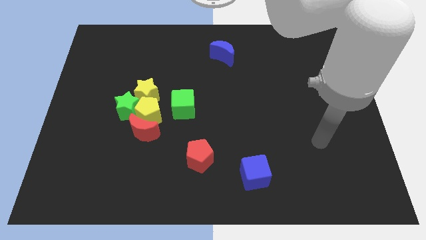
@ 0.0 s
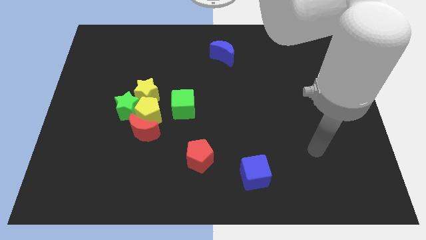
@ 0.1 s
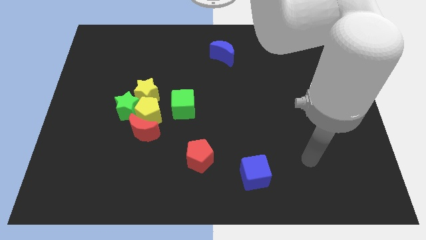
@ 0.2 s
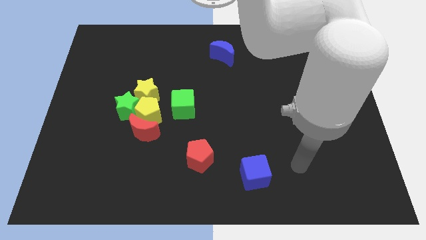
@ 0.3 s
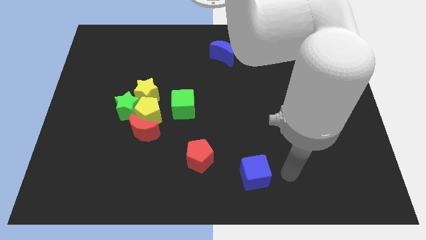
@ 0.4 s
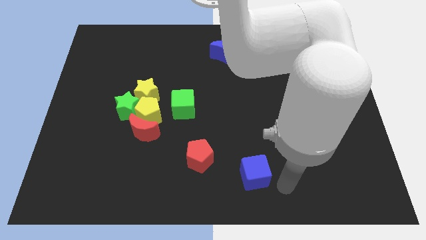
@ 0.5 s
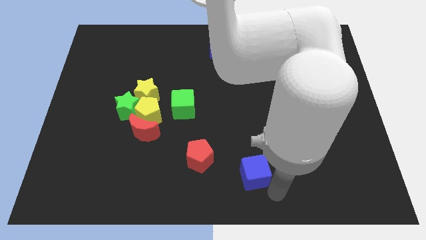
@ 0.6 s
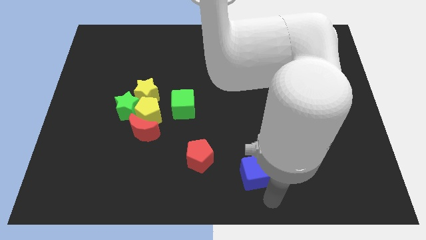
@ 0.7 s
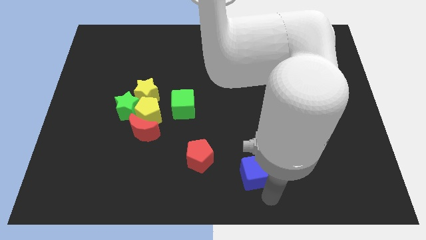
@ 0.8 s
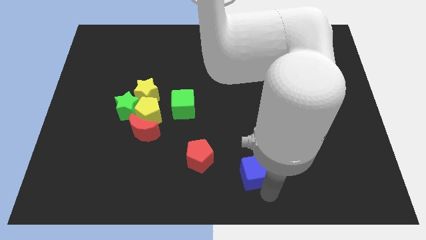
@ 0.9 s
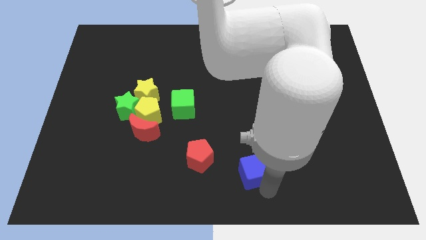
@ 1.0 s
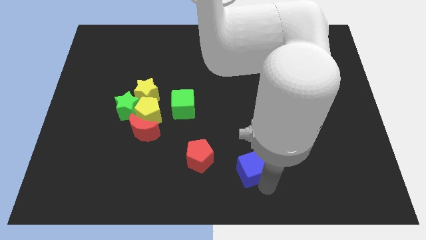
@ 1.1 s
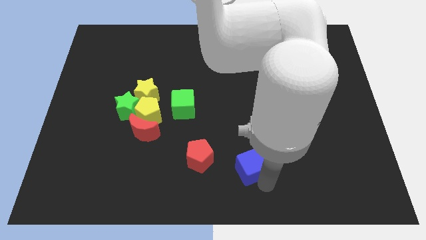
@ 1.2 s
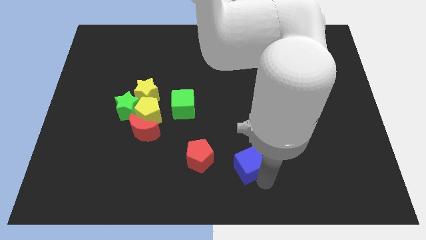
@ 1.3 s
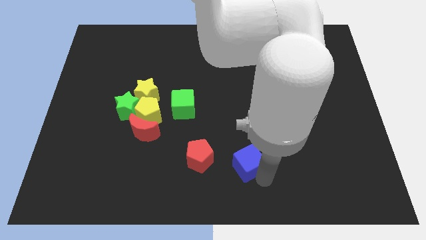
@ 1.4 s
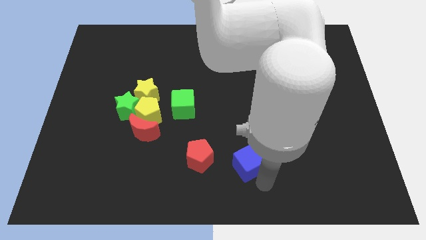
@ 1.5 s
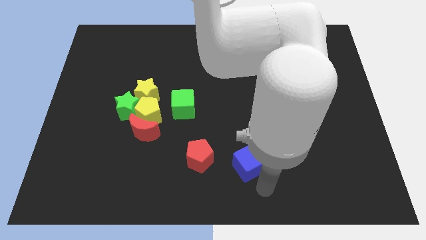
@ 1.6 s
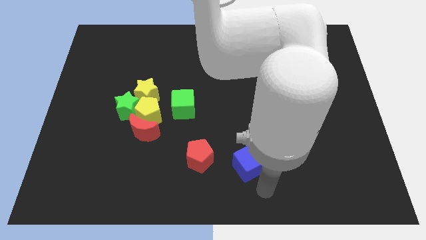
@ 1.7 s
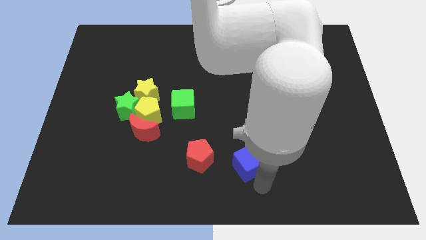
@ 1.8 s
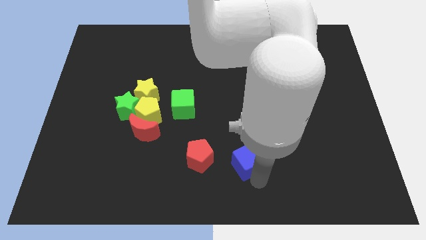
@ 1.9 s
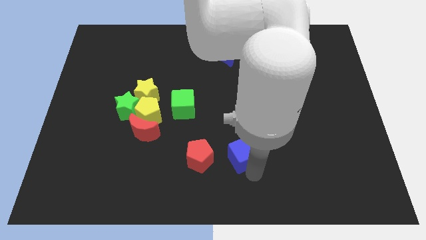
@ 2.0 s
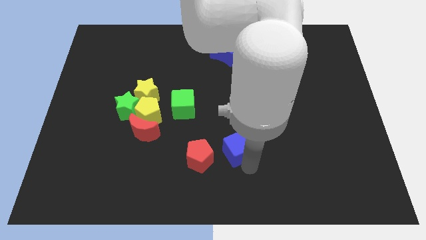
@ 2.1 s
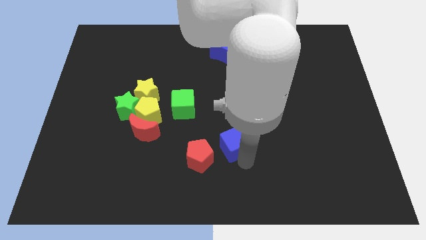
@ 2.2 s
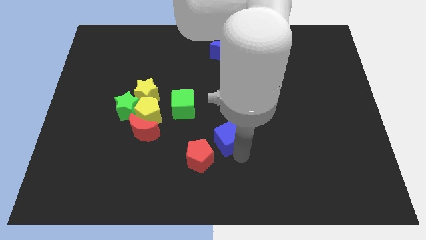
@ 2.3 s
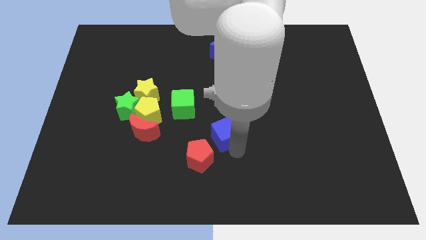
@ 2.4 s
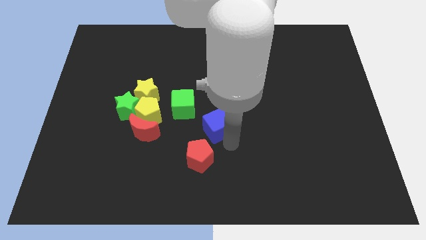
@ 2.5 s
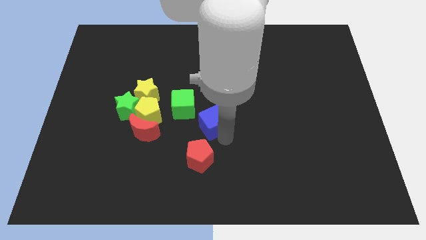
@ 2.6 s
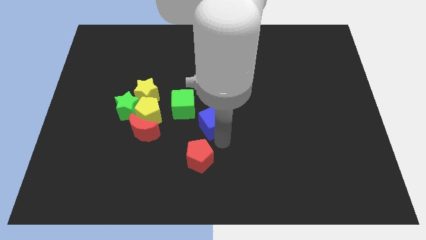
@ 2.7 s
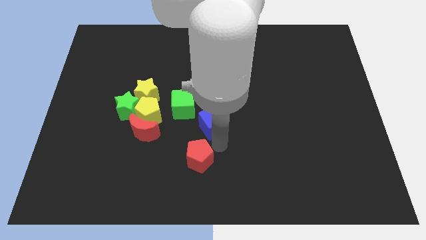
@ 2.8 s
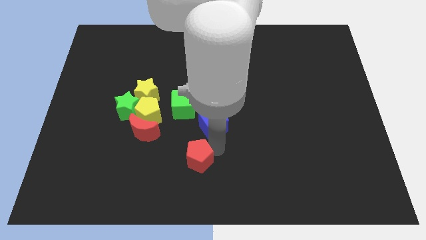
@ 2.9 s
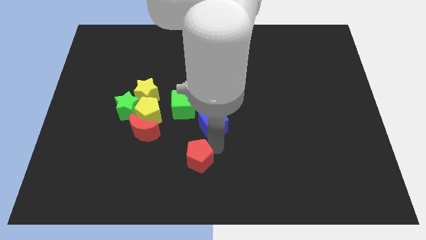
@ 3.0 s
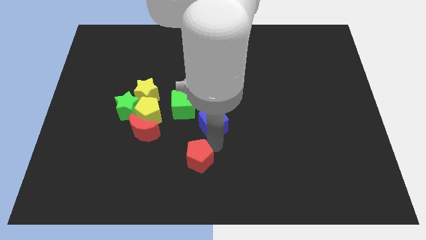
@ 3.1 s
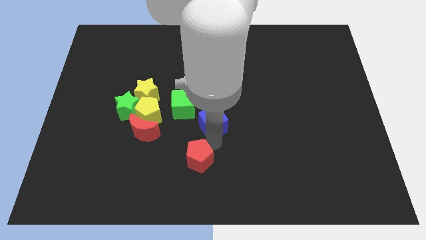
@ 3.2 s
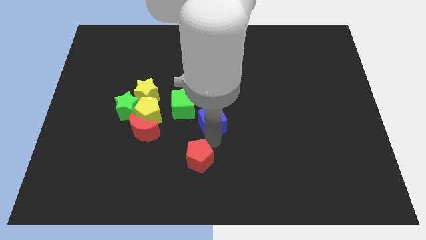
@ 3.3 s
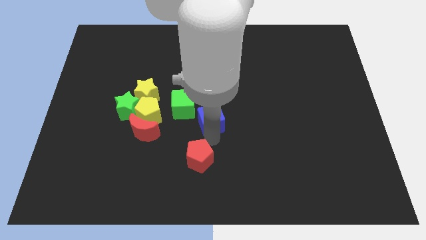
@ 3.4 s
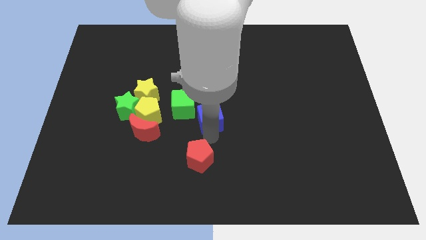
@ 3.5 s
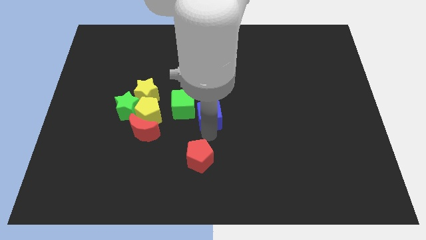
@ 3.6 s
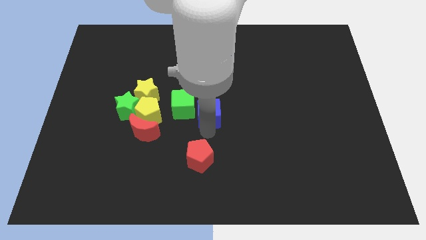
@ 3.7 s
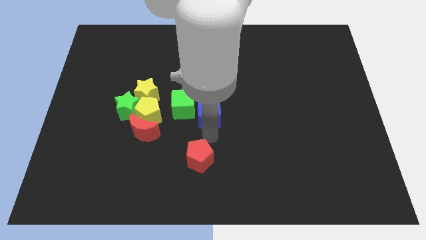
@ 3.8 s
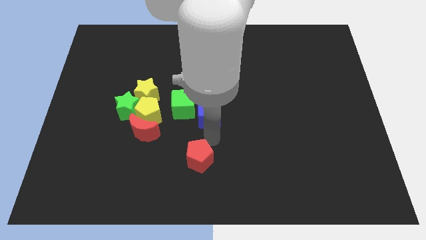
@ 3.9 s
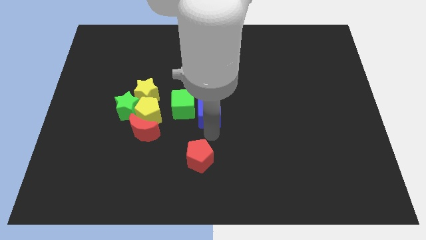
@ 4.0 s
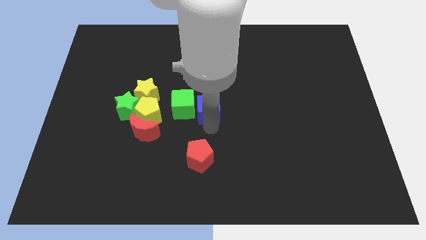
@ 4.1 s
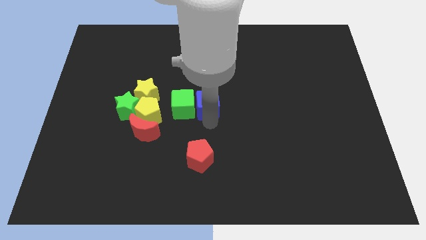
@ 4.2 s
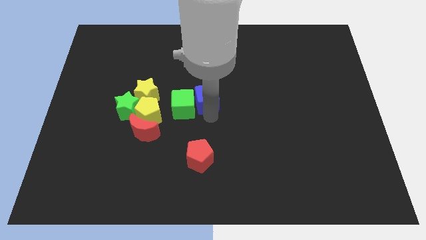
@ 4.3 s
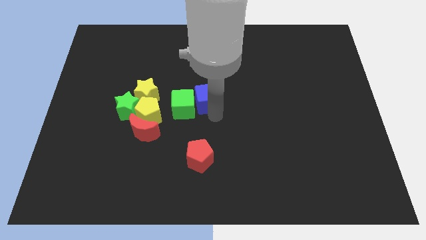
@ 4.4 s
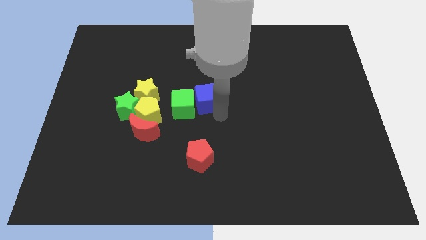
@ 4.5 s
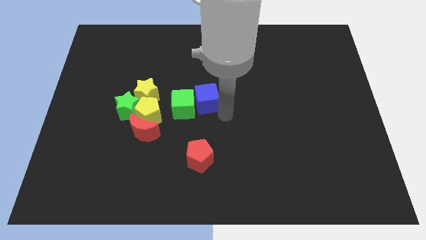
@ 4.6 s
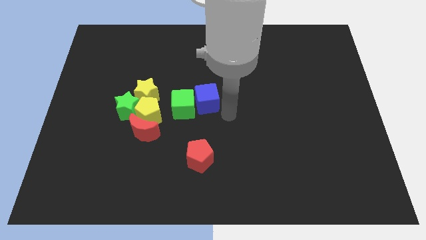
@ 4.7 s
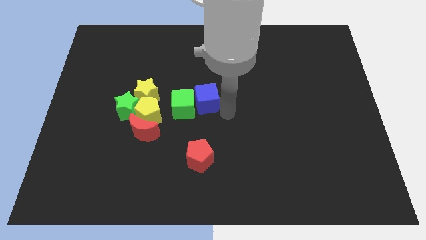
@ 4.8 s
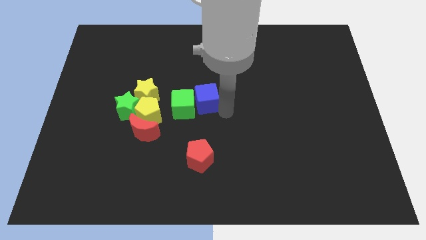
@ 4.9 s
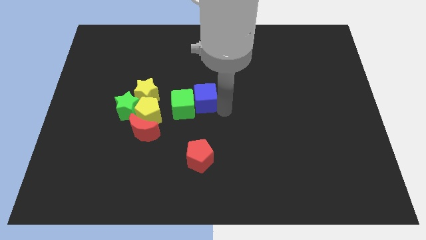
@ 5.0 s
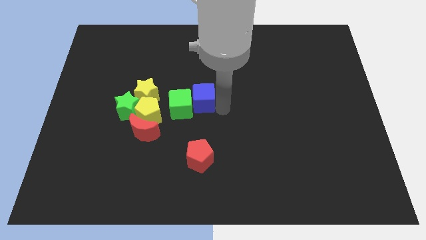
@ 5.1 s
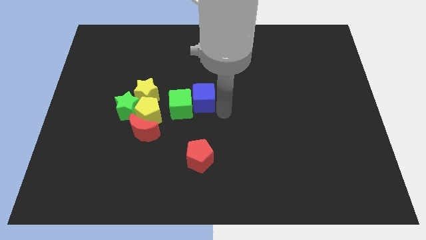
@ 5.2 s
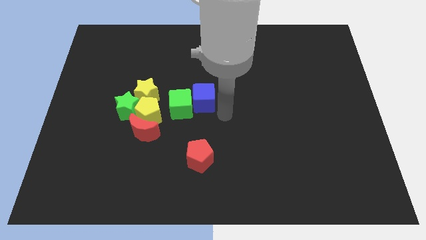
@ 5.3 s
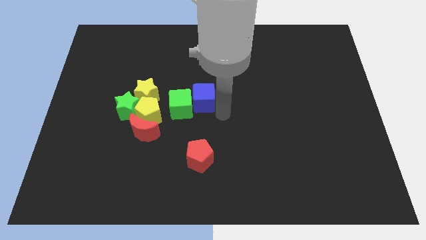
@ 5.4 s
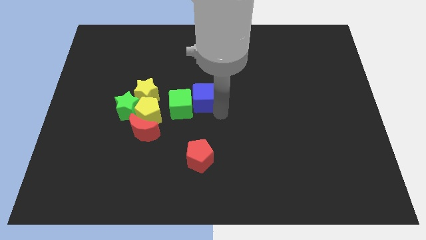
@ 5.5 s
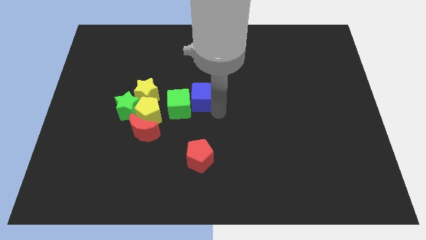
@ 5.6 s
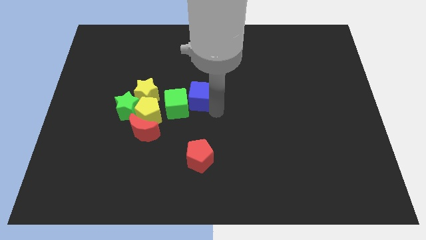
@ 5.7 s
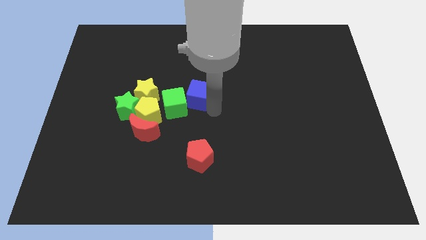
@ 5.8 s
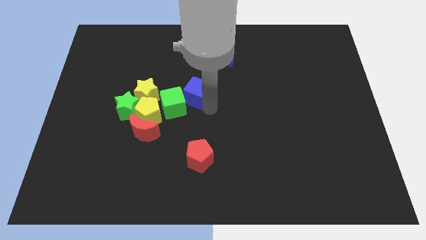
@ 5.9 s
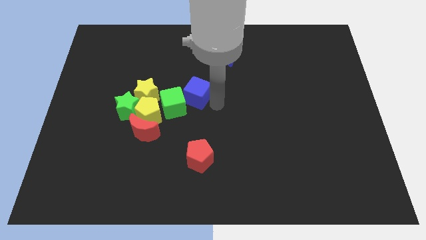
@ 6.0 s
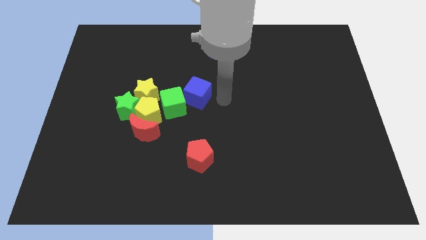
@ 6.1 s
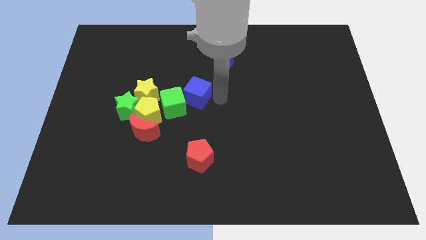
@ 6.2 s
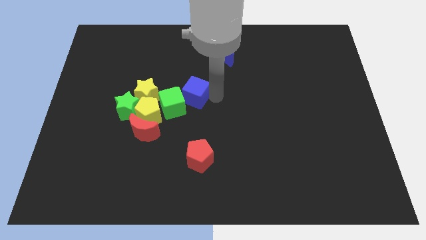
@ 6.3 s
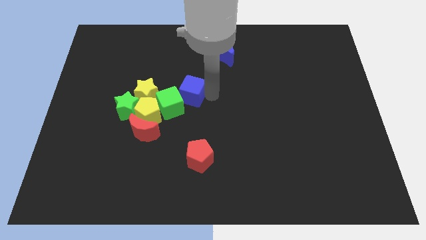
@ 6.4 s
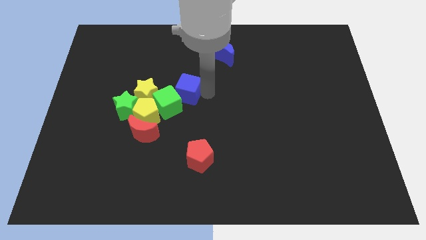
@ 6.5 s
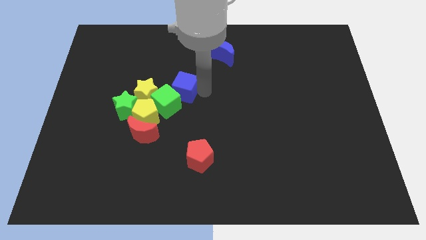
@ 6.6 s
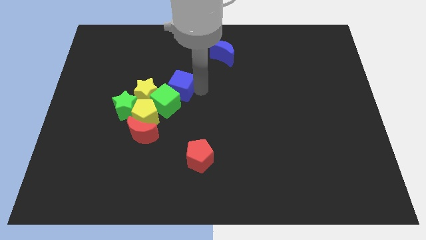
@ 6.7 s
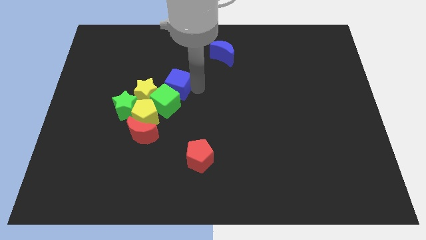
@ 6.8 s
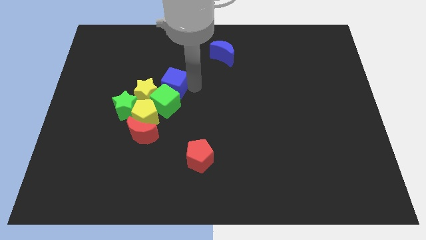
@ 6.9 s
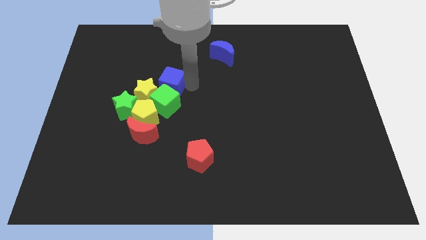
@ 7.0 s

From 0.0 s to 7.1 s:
slide the blue cube to the top left side of the green cube

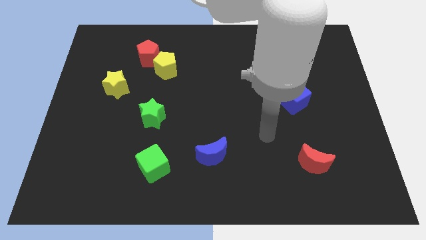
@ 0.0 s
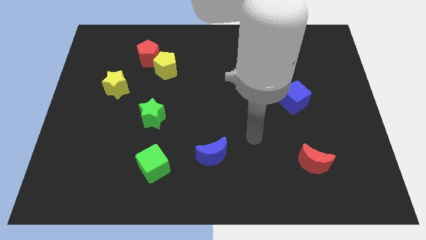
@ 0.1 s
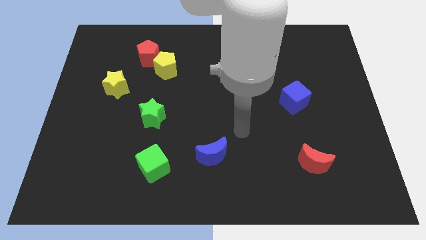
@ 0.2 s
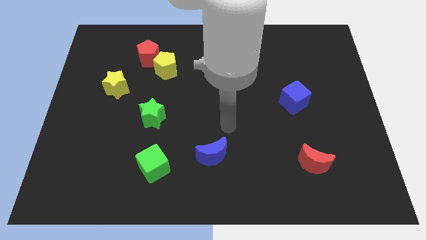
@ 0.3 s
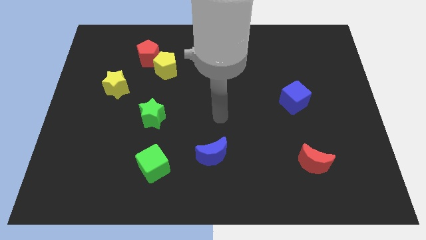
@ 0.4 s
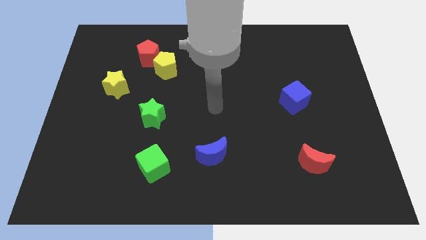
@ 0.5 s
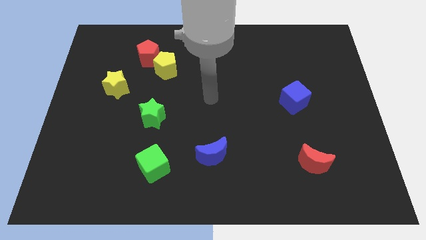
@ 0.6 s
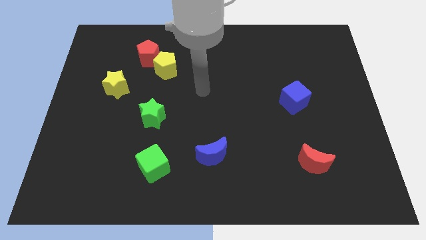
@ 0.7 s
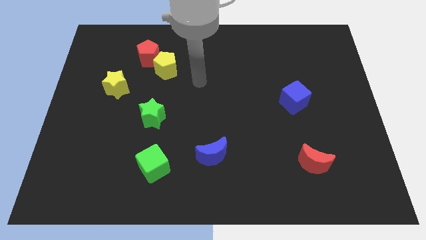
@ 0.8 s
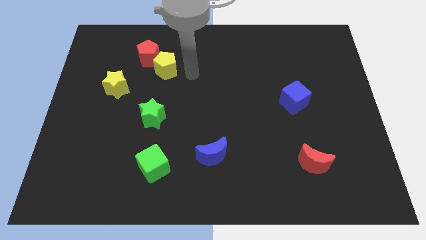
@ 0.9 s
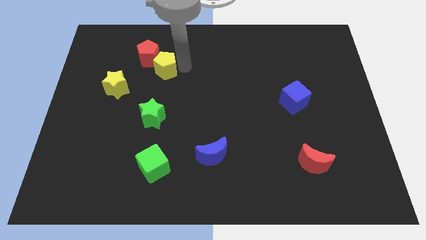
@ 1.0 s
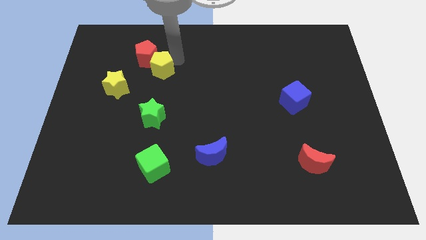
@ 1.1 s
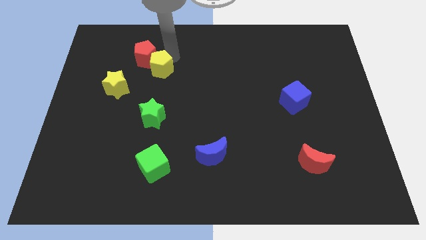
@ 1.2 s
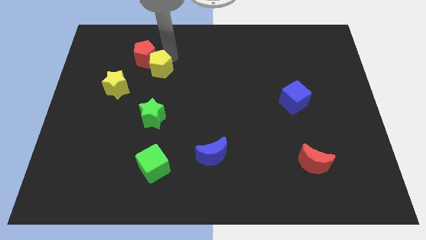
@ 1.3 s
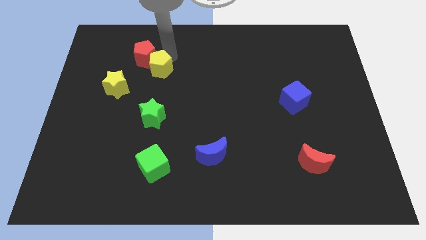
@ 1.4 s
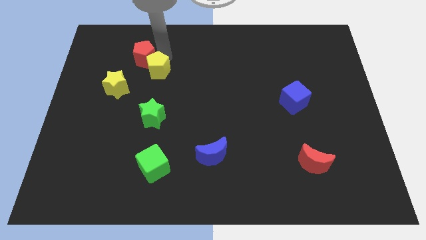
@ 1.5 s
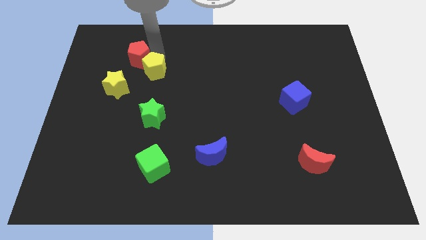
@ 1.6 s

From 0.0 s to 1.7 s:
move the red pentagon above the yellow star
